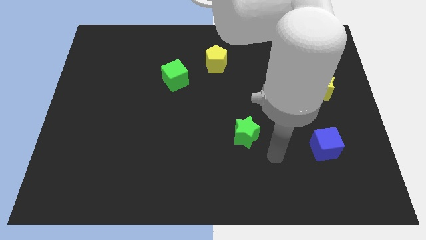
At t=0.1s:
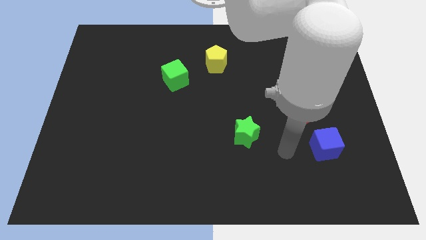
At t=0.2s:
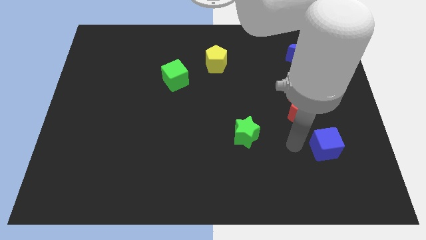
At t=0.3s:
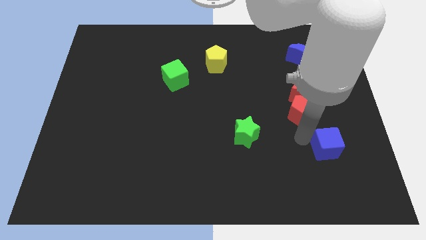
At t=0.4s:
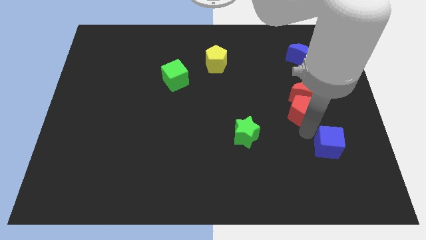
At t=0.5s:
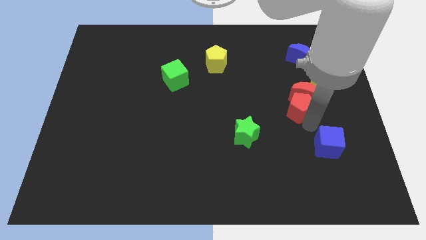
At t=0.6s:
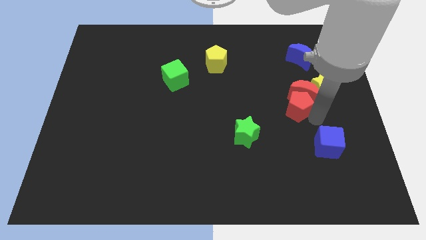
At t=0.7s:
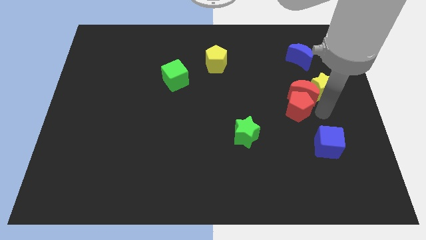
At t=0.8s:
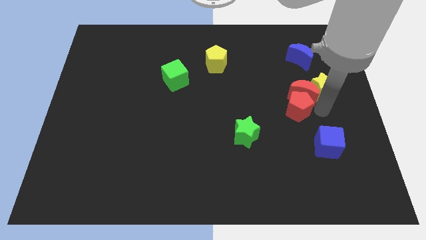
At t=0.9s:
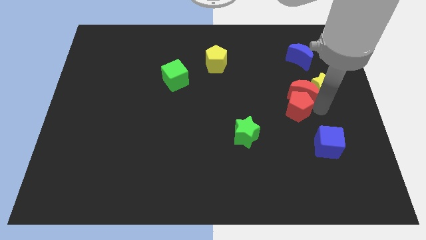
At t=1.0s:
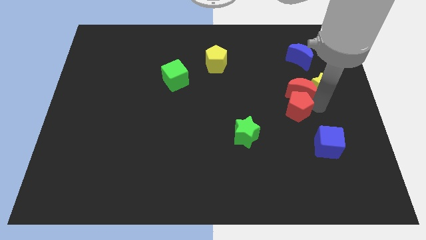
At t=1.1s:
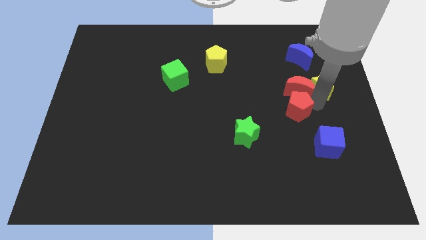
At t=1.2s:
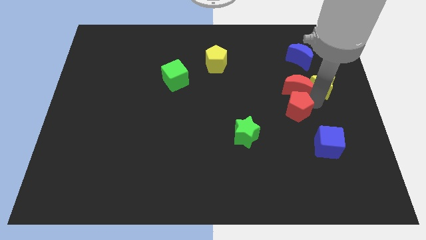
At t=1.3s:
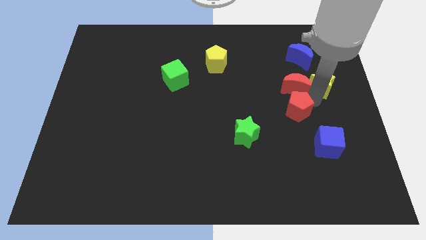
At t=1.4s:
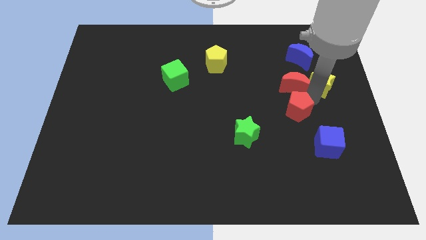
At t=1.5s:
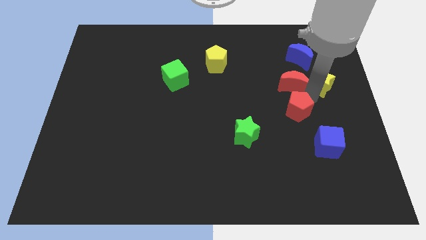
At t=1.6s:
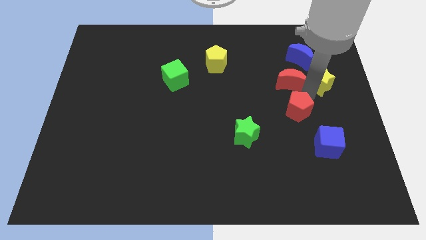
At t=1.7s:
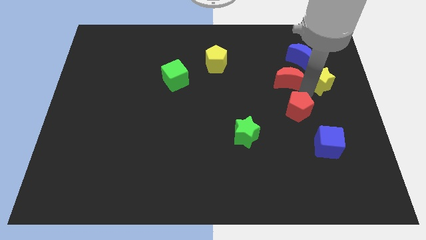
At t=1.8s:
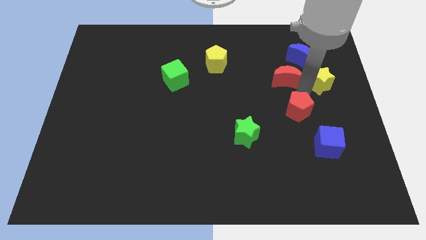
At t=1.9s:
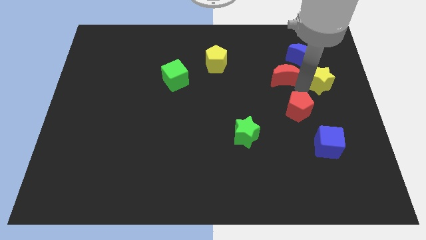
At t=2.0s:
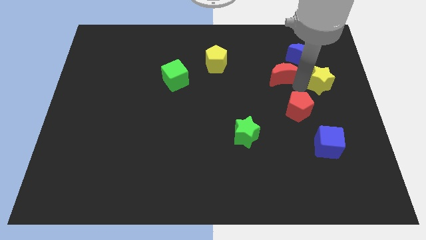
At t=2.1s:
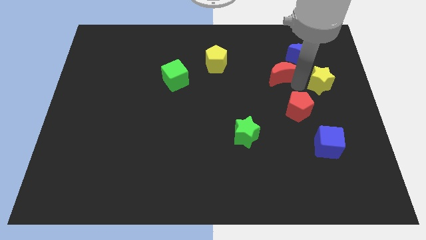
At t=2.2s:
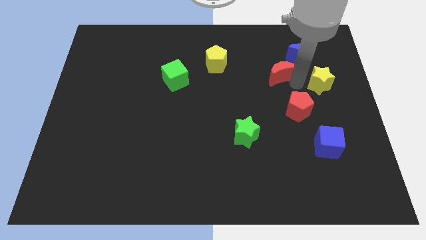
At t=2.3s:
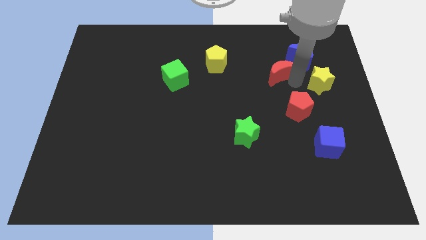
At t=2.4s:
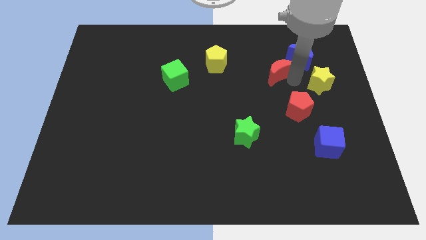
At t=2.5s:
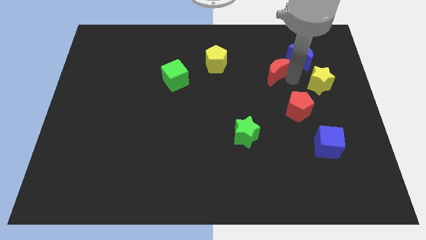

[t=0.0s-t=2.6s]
move the red moon away from the yellow star and red pentagon

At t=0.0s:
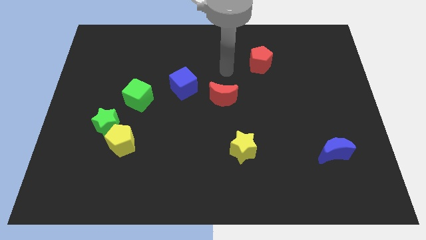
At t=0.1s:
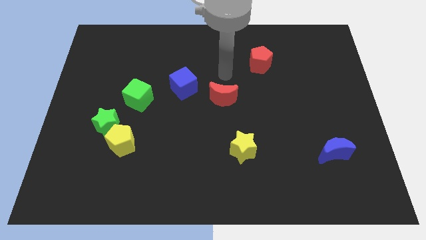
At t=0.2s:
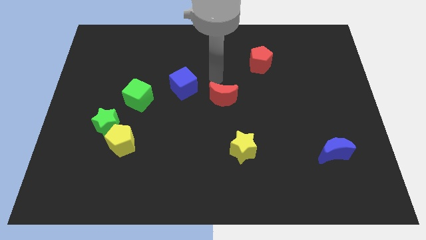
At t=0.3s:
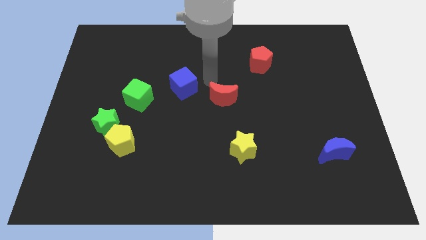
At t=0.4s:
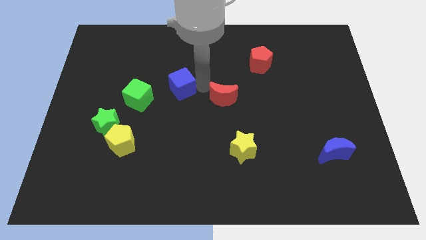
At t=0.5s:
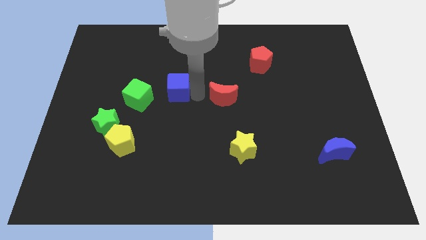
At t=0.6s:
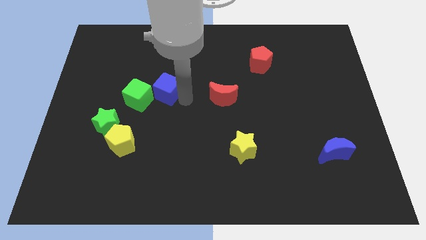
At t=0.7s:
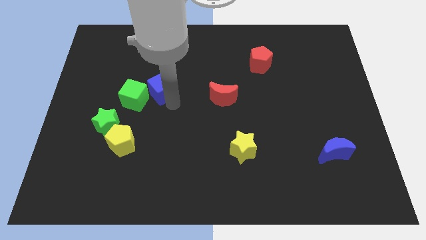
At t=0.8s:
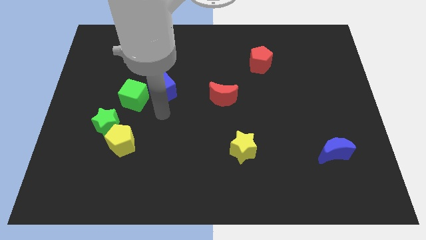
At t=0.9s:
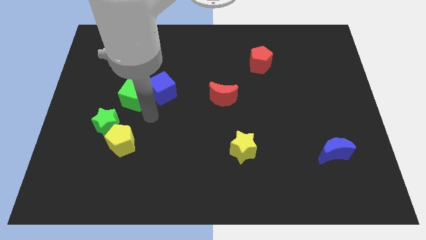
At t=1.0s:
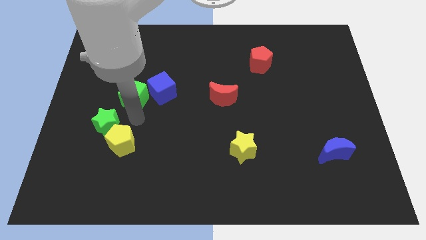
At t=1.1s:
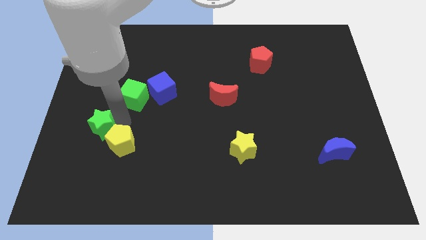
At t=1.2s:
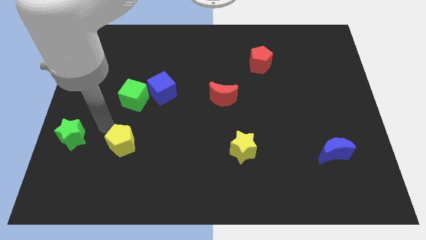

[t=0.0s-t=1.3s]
move the yellow pentagon away from the green star

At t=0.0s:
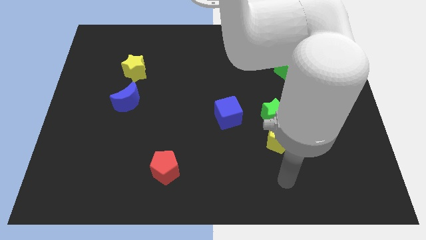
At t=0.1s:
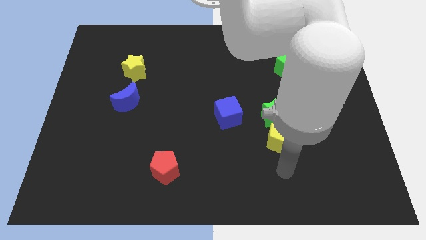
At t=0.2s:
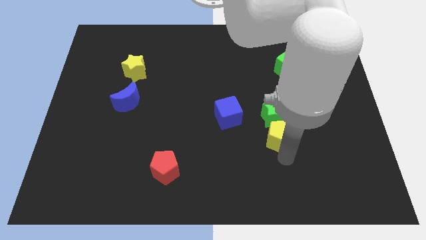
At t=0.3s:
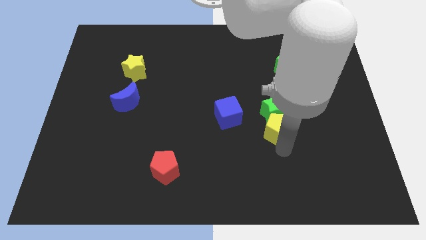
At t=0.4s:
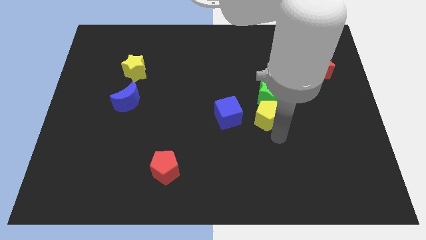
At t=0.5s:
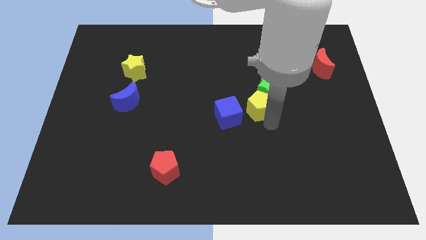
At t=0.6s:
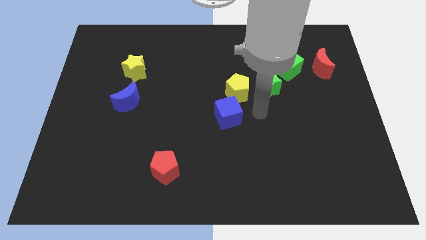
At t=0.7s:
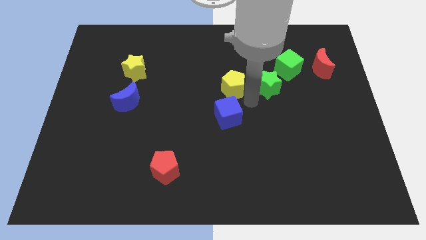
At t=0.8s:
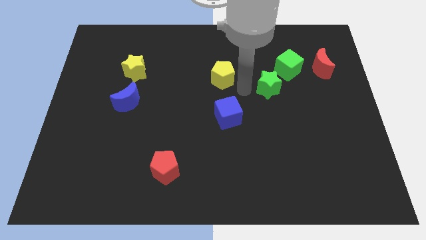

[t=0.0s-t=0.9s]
pull the green star apart from the yellow pentagon

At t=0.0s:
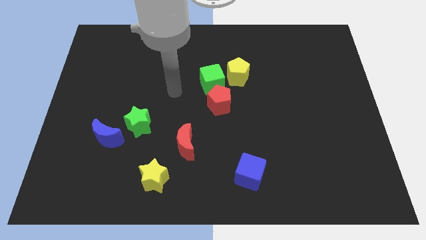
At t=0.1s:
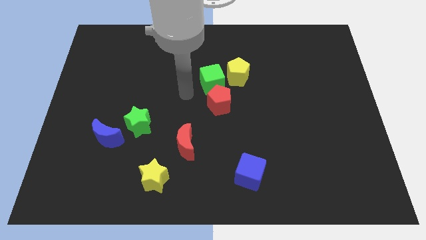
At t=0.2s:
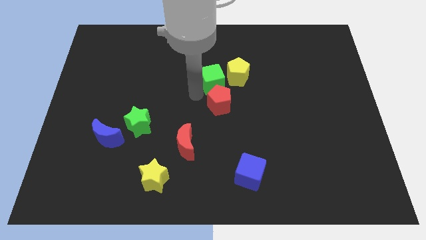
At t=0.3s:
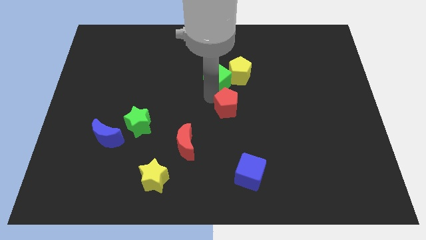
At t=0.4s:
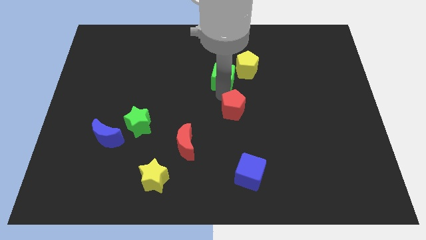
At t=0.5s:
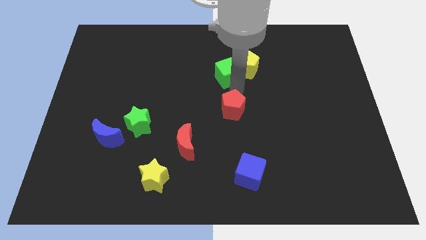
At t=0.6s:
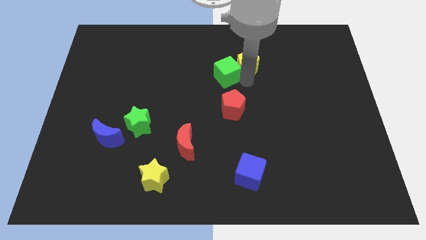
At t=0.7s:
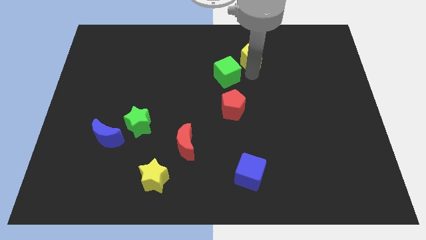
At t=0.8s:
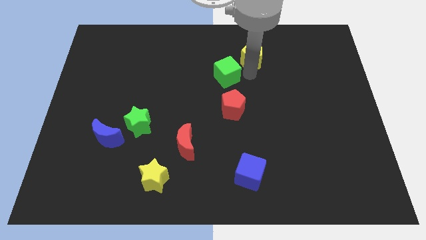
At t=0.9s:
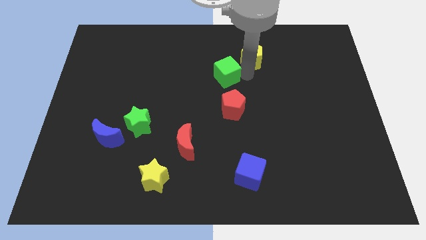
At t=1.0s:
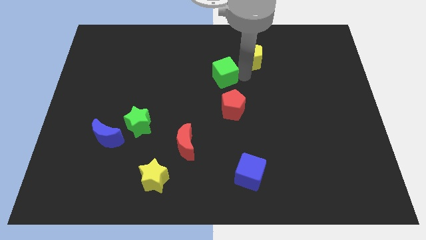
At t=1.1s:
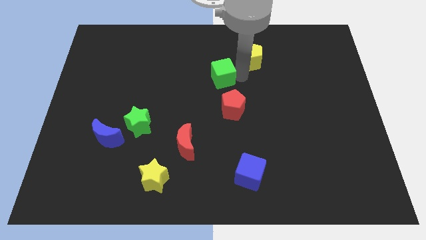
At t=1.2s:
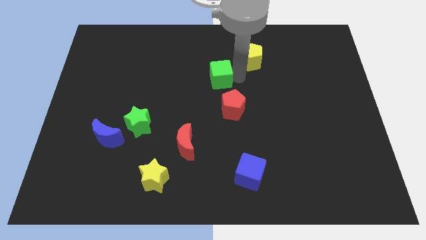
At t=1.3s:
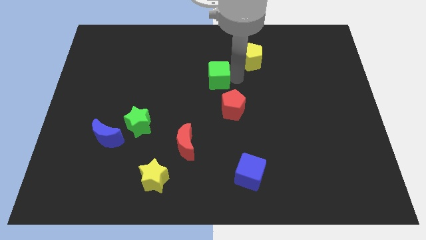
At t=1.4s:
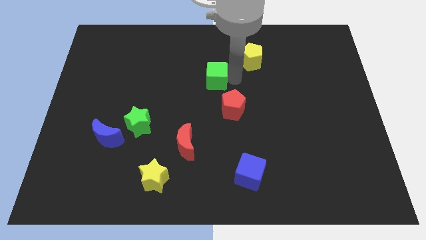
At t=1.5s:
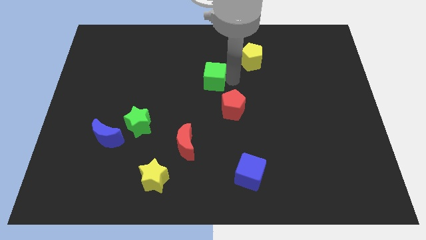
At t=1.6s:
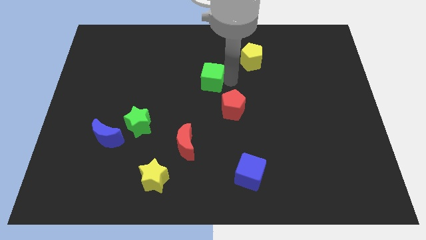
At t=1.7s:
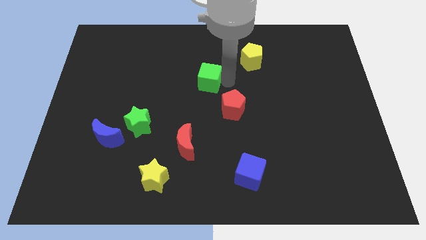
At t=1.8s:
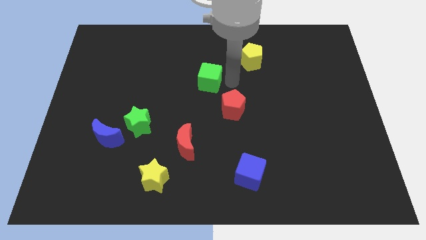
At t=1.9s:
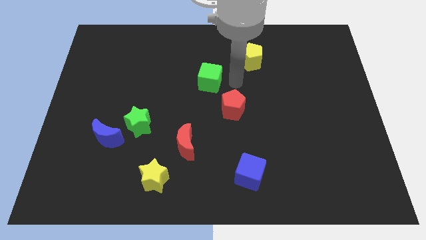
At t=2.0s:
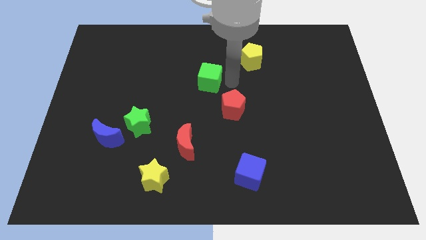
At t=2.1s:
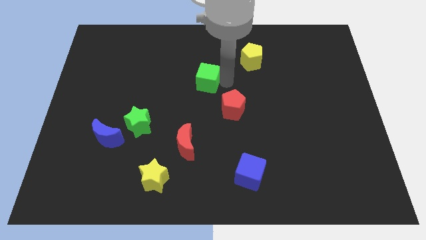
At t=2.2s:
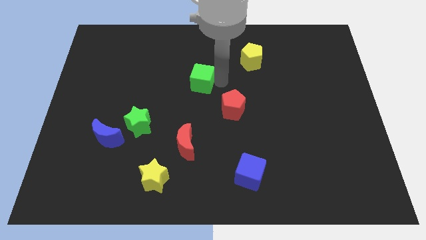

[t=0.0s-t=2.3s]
separate the green cube from the yellow pentagon and red pentagon

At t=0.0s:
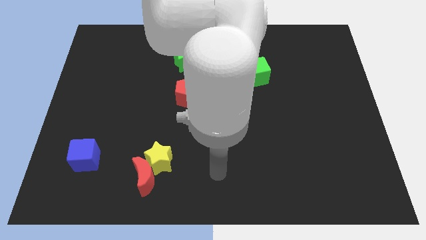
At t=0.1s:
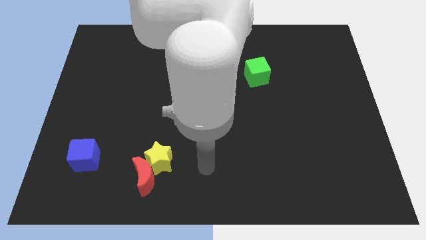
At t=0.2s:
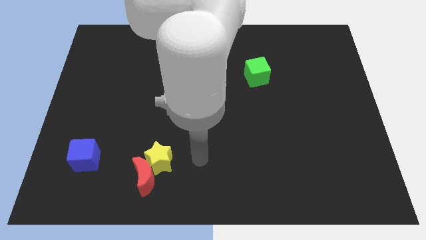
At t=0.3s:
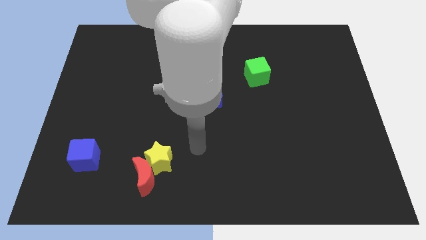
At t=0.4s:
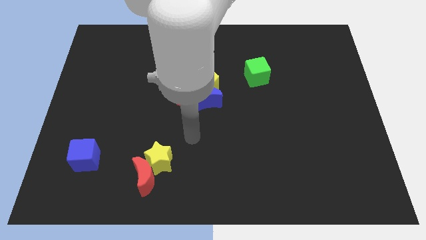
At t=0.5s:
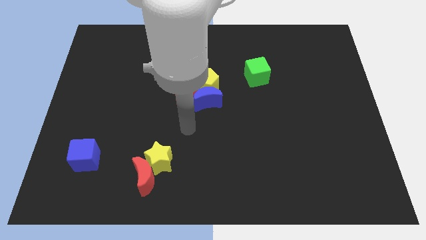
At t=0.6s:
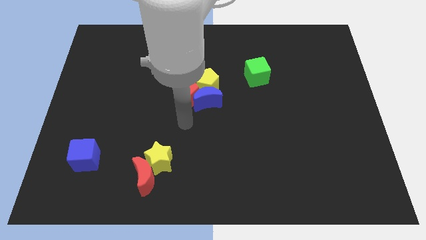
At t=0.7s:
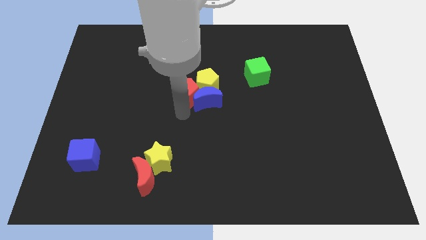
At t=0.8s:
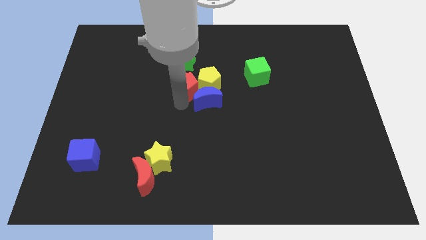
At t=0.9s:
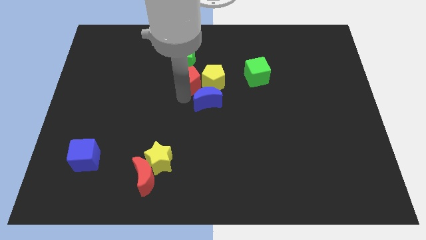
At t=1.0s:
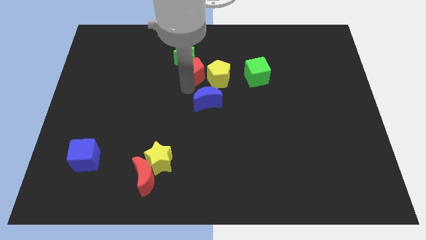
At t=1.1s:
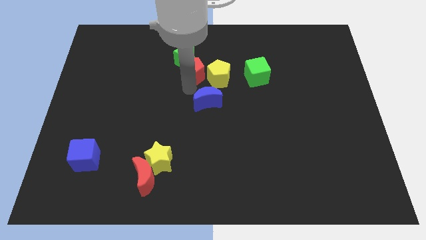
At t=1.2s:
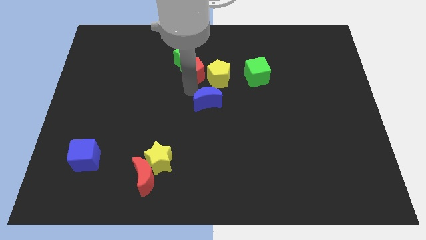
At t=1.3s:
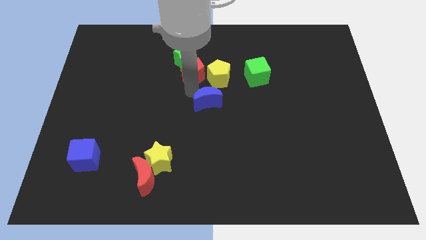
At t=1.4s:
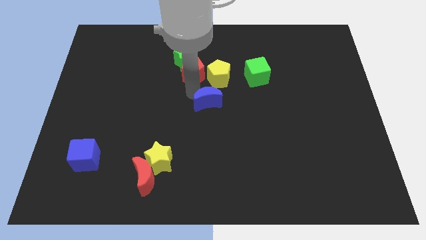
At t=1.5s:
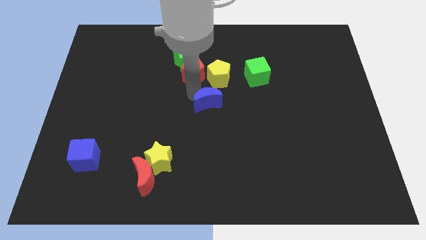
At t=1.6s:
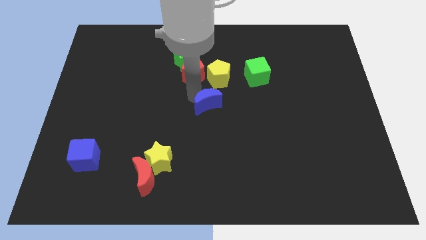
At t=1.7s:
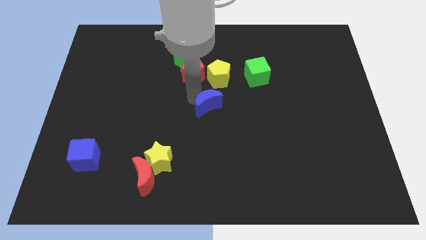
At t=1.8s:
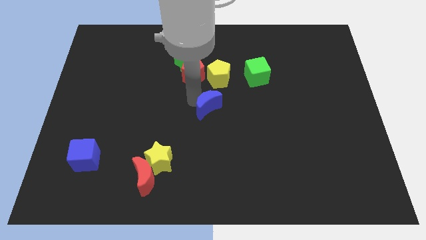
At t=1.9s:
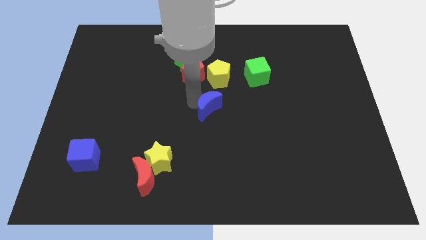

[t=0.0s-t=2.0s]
move the blue moon away from the yellow pentagon and red pentagon

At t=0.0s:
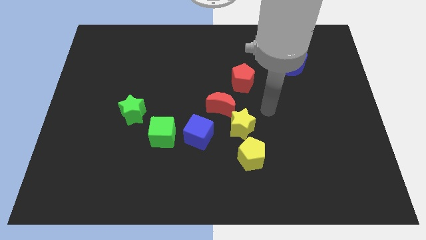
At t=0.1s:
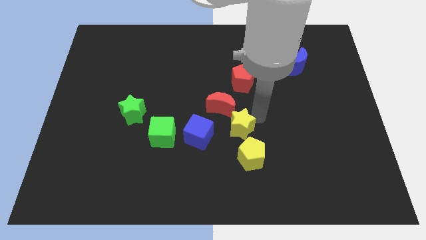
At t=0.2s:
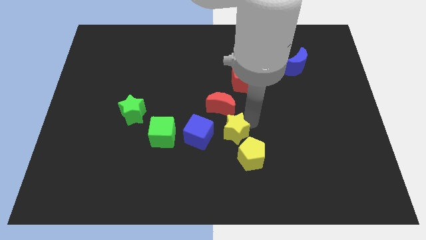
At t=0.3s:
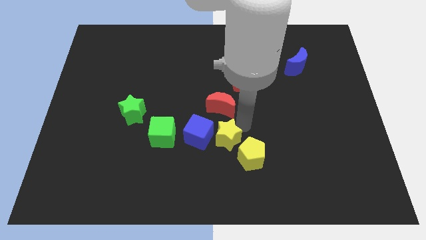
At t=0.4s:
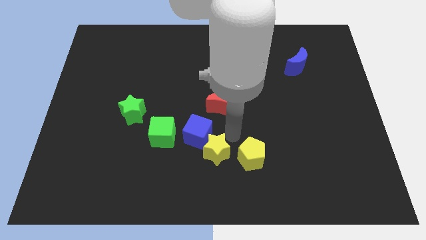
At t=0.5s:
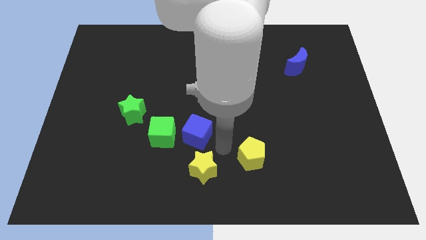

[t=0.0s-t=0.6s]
pull the yellow pentagon apart from the yellow star
